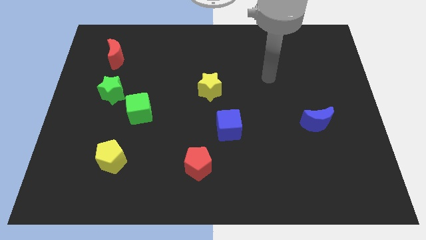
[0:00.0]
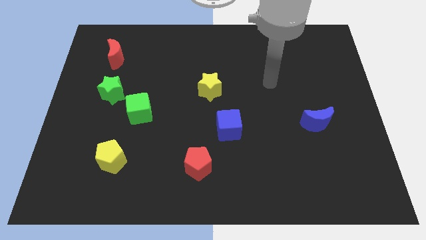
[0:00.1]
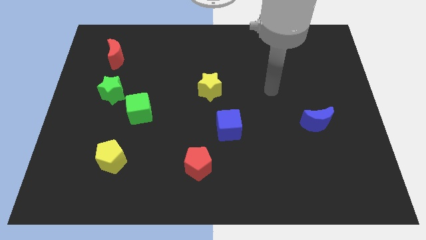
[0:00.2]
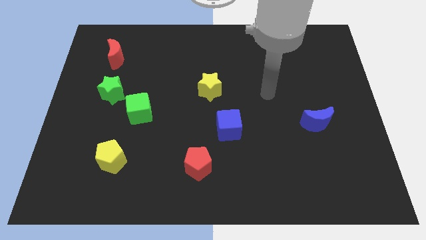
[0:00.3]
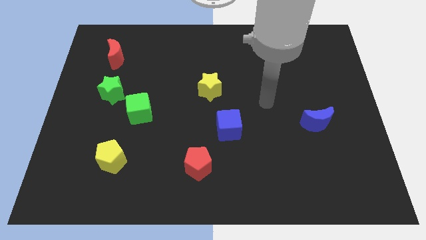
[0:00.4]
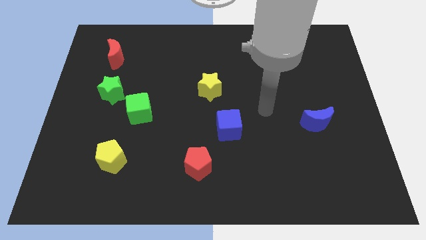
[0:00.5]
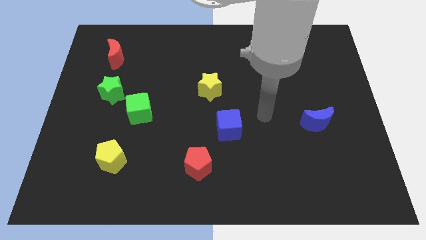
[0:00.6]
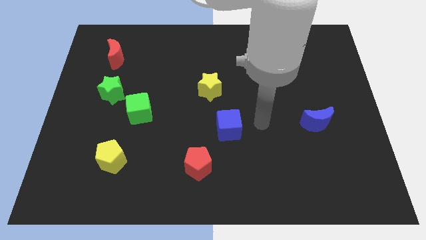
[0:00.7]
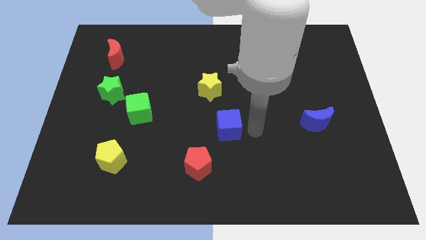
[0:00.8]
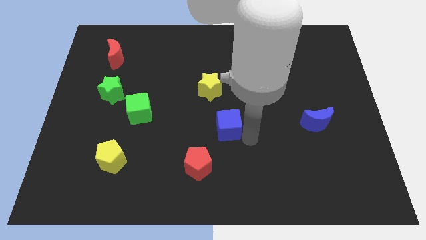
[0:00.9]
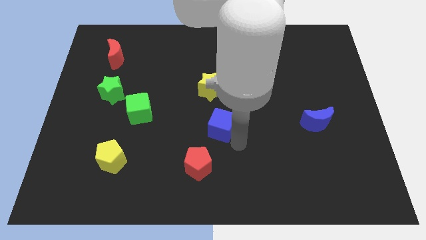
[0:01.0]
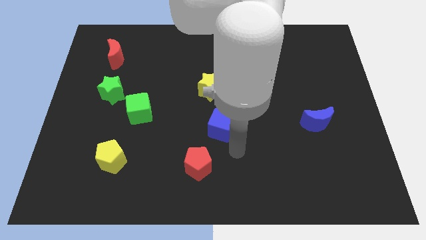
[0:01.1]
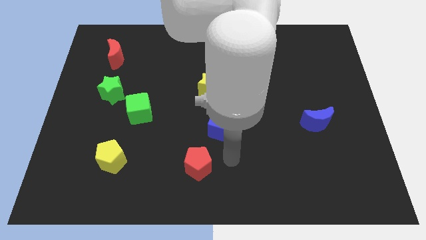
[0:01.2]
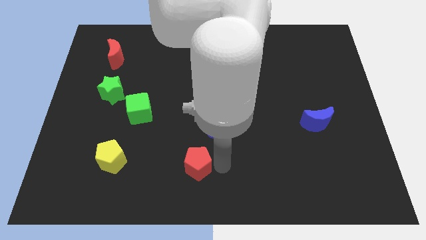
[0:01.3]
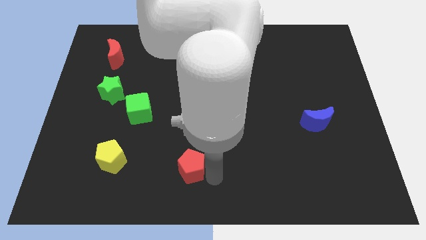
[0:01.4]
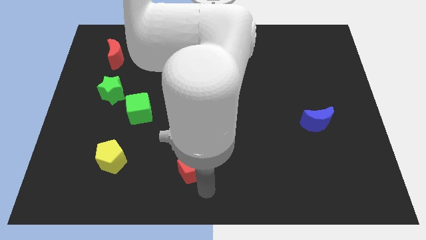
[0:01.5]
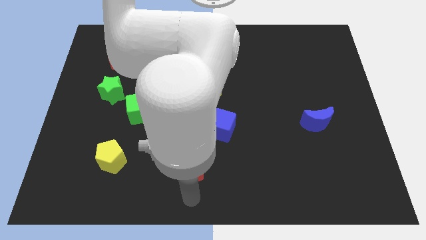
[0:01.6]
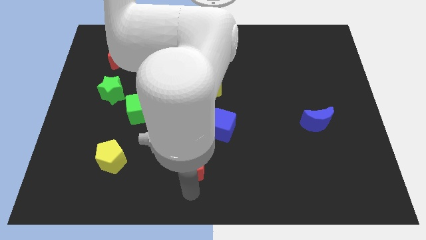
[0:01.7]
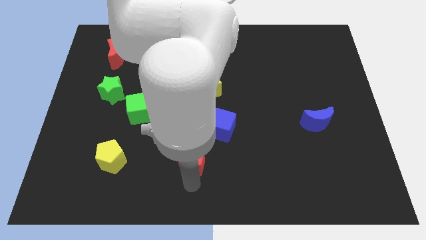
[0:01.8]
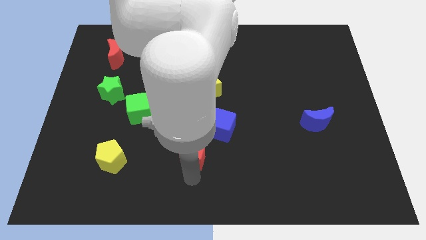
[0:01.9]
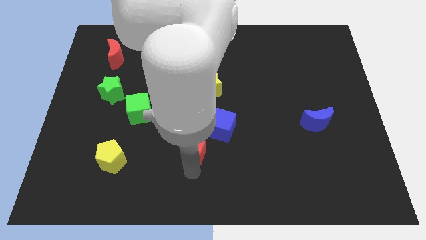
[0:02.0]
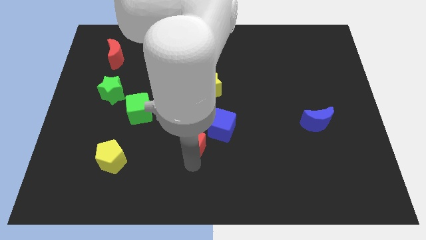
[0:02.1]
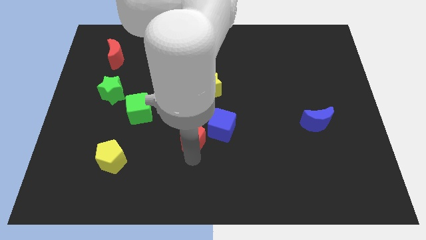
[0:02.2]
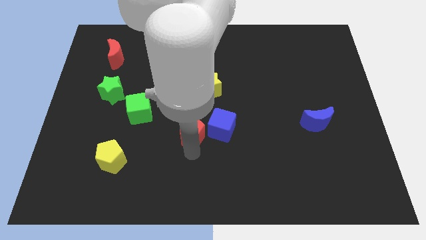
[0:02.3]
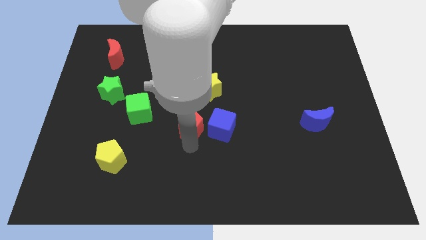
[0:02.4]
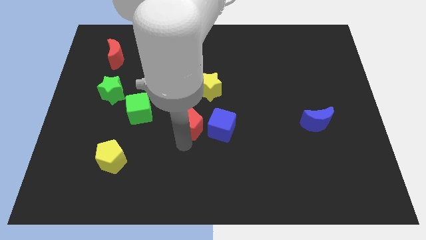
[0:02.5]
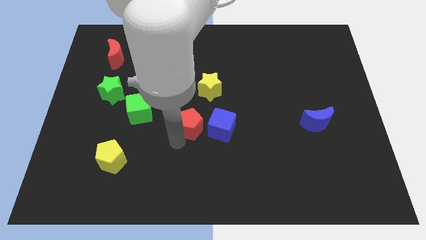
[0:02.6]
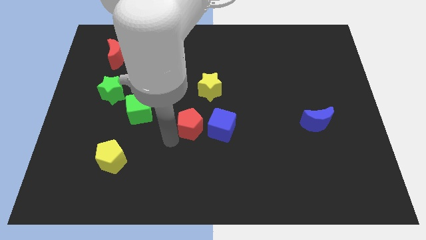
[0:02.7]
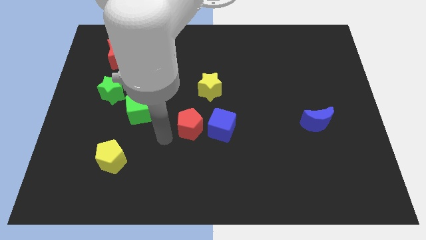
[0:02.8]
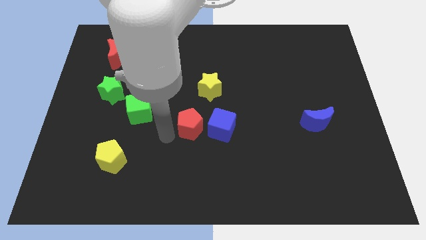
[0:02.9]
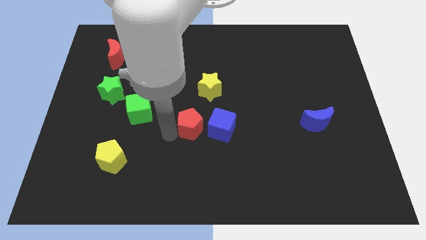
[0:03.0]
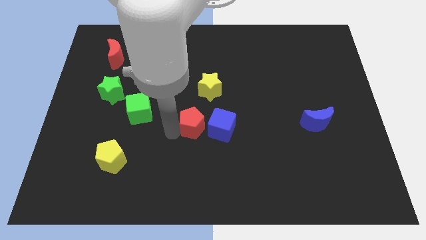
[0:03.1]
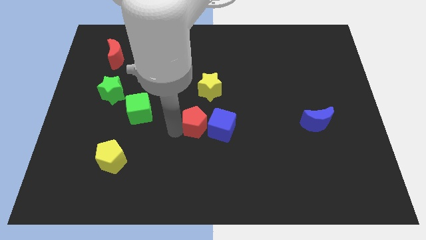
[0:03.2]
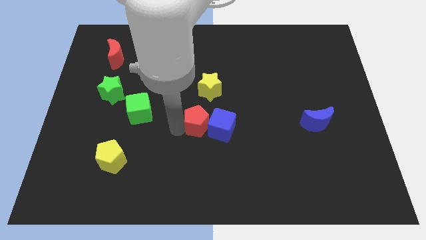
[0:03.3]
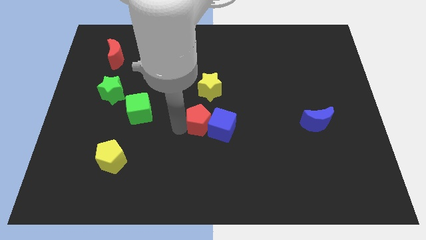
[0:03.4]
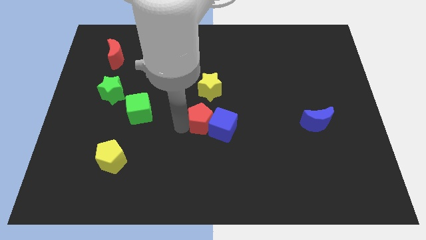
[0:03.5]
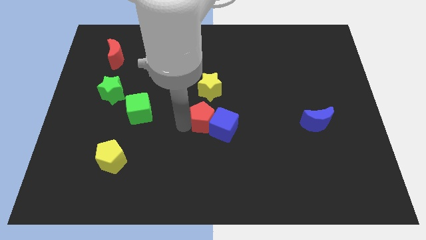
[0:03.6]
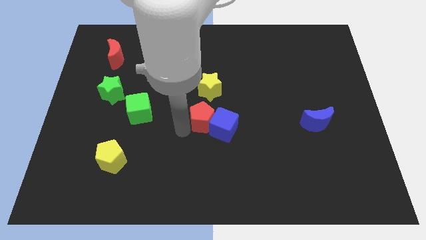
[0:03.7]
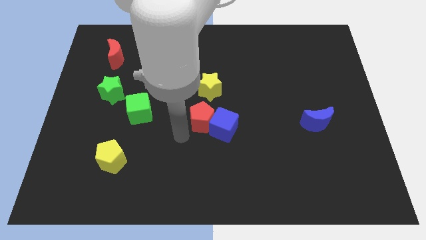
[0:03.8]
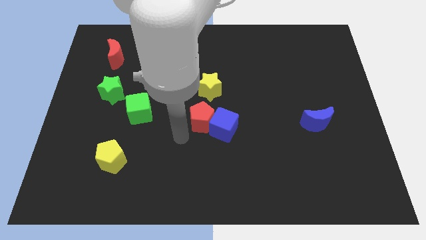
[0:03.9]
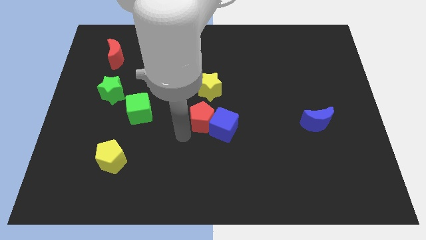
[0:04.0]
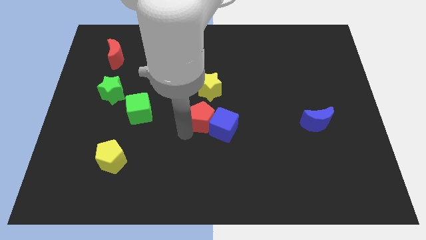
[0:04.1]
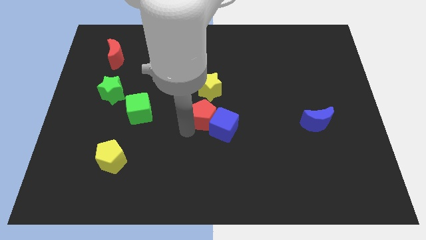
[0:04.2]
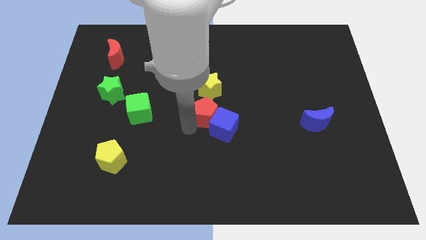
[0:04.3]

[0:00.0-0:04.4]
move the red pentagon to the top side of the blue cube

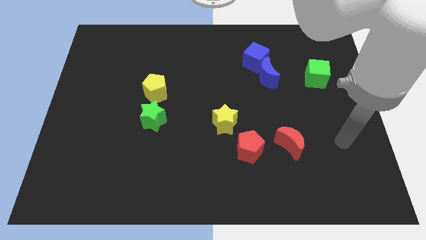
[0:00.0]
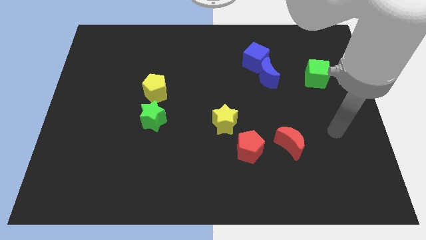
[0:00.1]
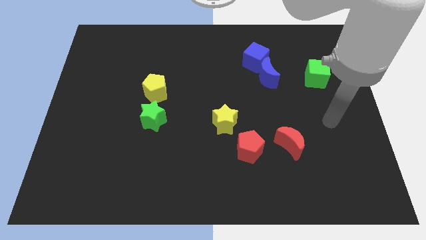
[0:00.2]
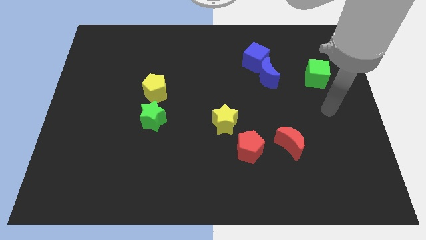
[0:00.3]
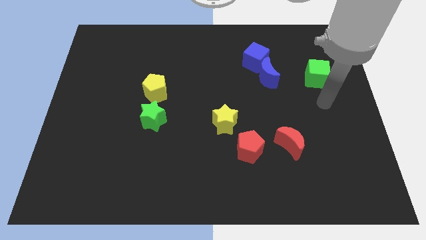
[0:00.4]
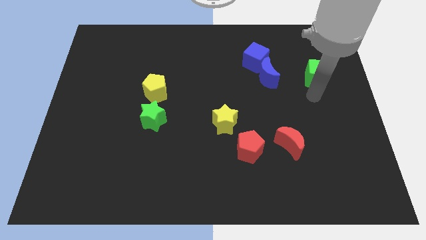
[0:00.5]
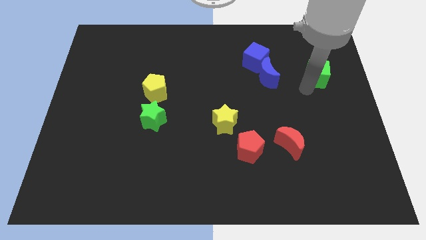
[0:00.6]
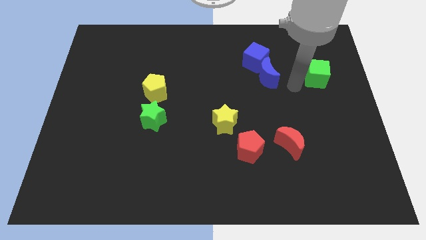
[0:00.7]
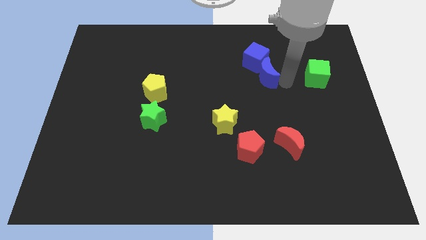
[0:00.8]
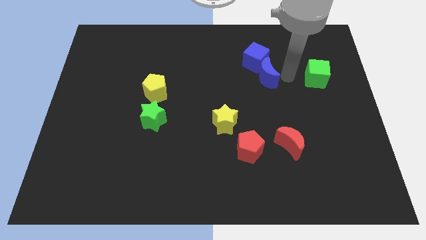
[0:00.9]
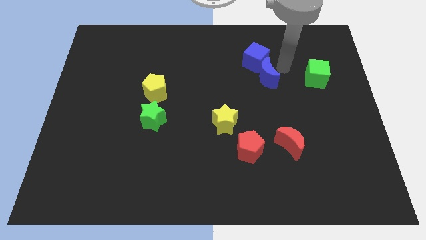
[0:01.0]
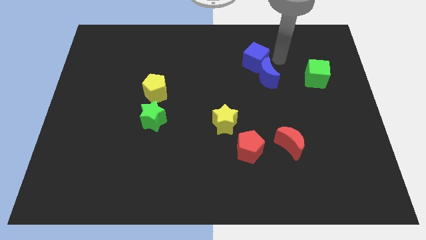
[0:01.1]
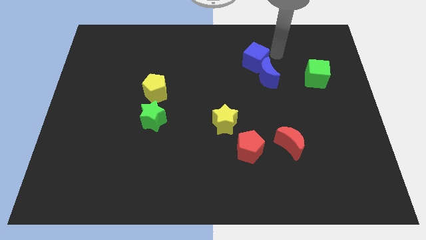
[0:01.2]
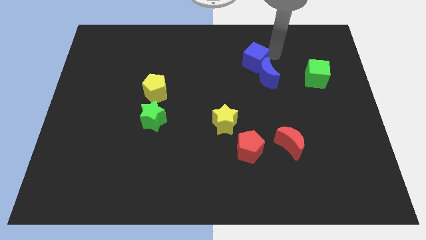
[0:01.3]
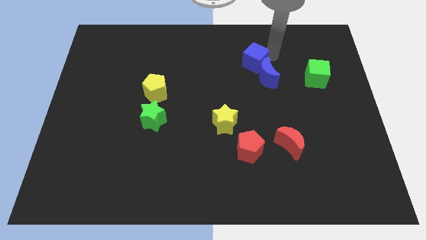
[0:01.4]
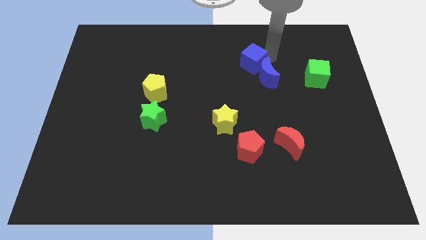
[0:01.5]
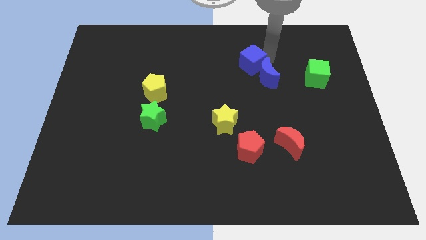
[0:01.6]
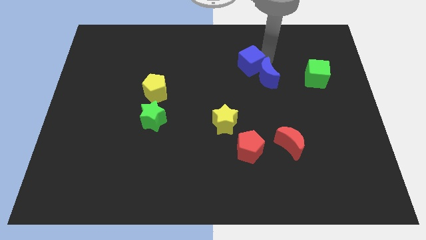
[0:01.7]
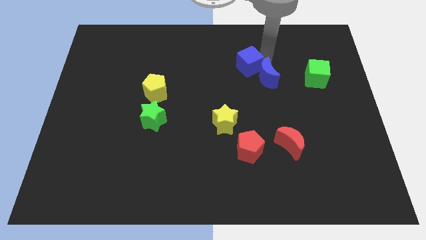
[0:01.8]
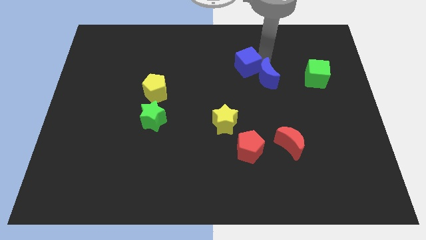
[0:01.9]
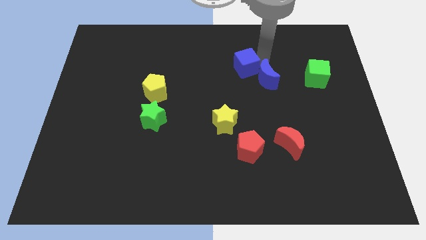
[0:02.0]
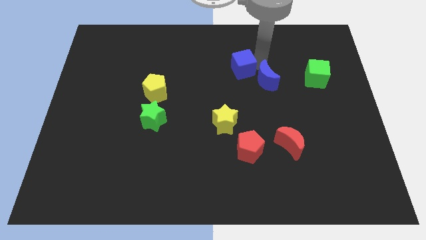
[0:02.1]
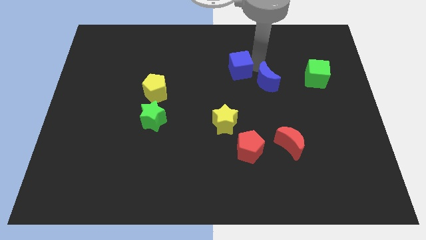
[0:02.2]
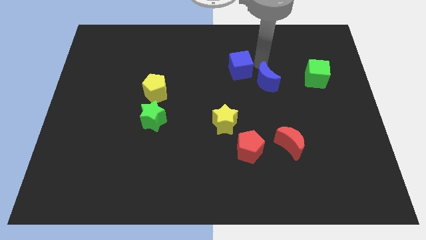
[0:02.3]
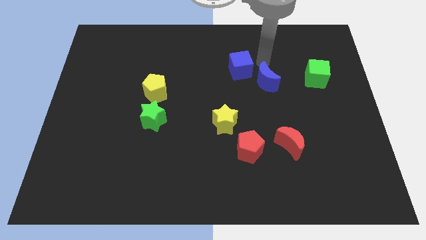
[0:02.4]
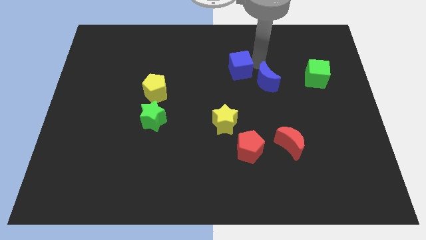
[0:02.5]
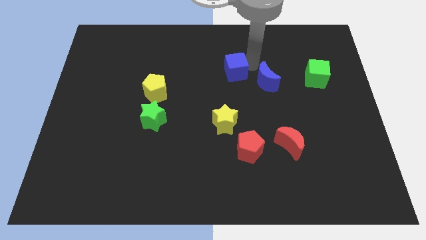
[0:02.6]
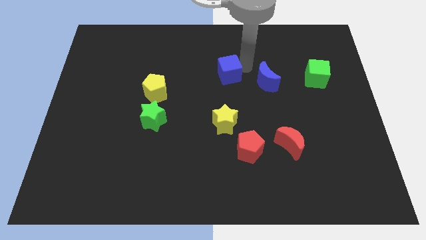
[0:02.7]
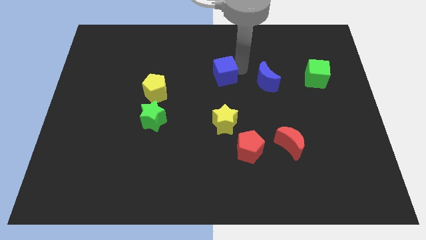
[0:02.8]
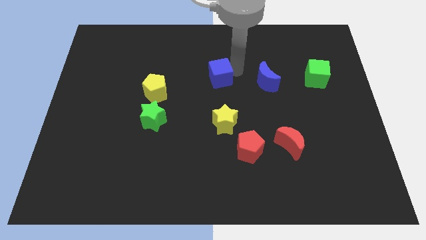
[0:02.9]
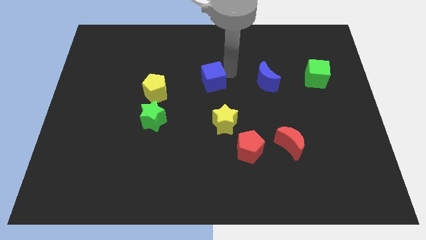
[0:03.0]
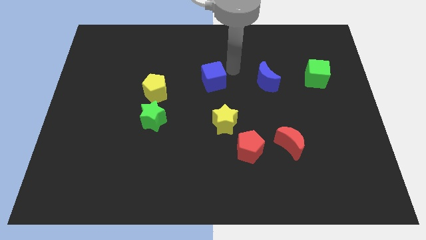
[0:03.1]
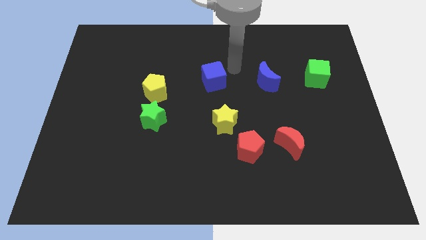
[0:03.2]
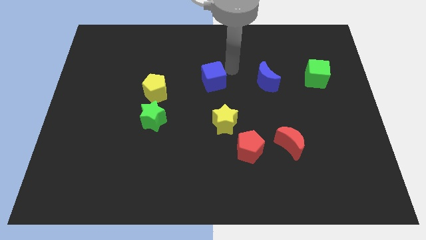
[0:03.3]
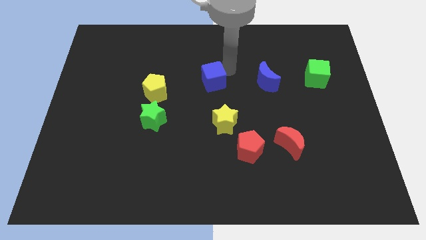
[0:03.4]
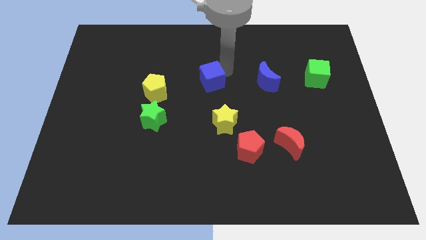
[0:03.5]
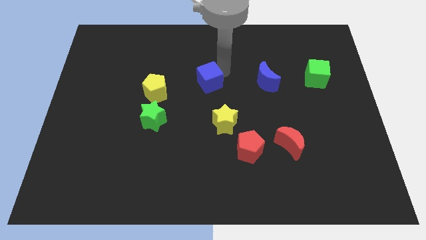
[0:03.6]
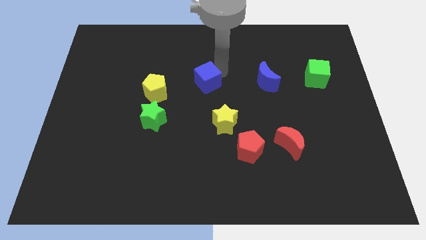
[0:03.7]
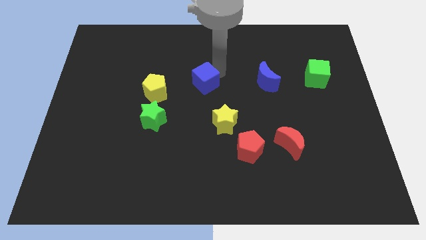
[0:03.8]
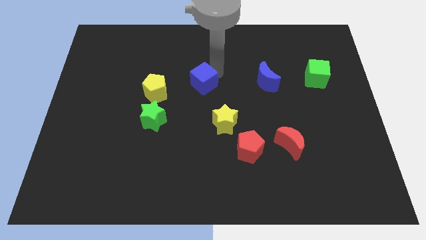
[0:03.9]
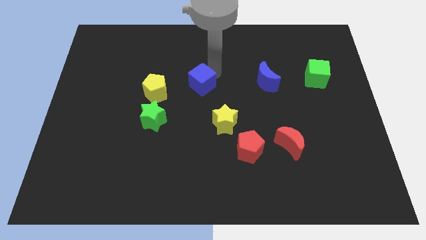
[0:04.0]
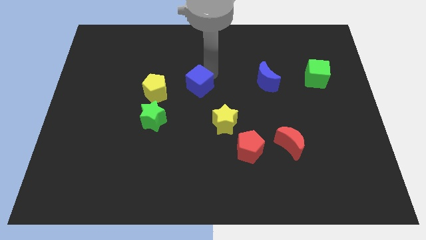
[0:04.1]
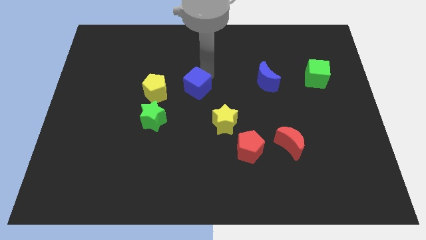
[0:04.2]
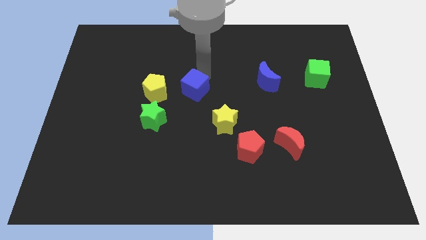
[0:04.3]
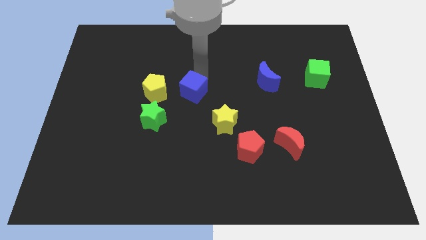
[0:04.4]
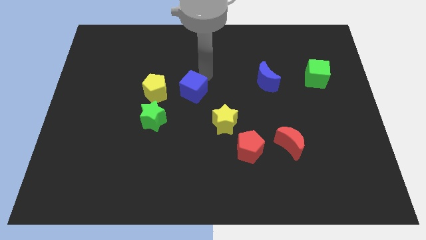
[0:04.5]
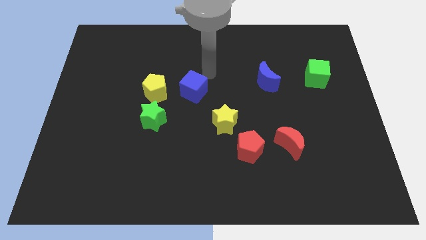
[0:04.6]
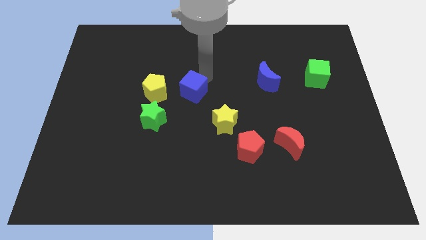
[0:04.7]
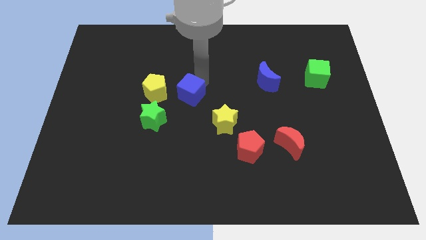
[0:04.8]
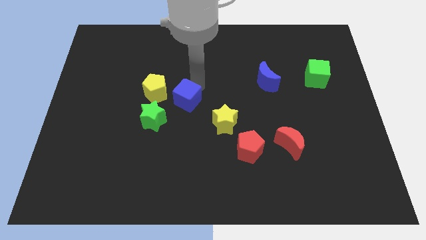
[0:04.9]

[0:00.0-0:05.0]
move the blue cube to the bottom right side of the yellow pentagon
